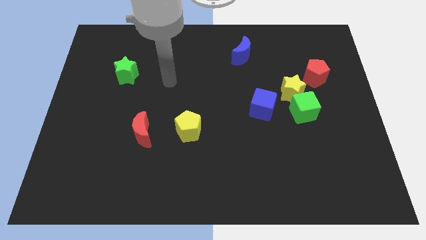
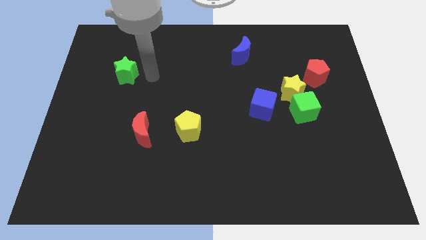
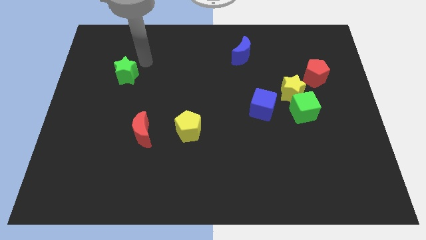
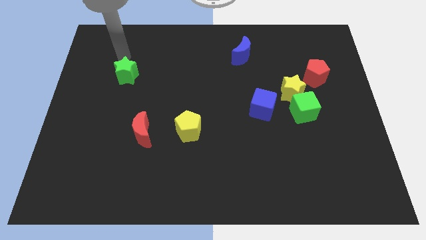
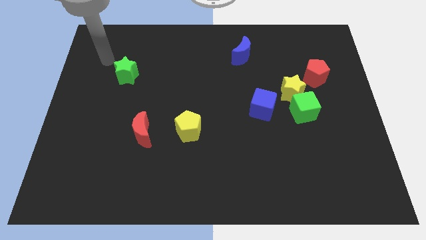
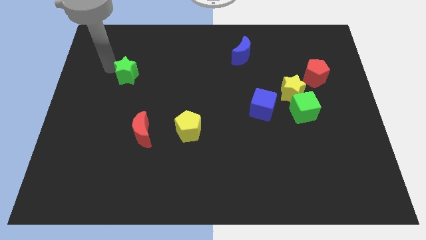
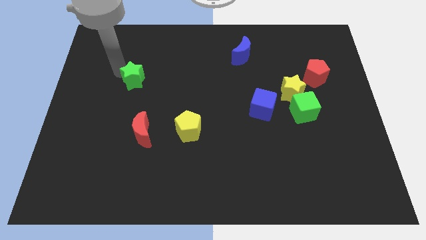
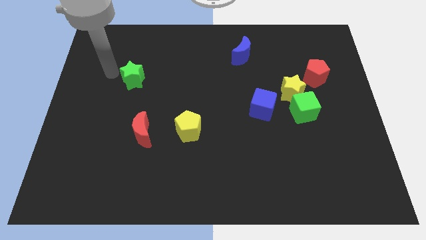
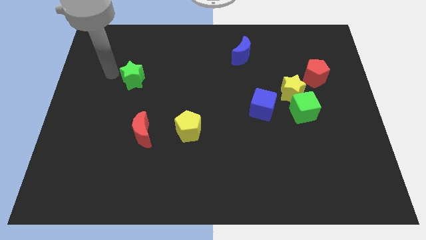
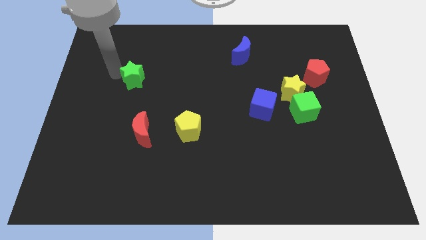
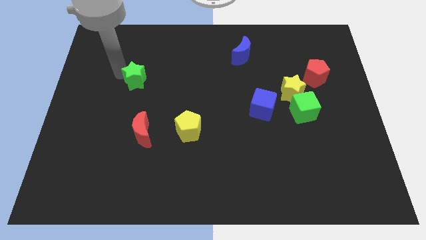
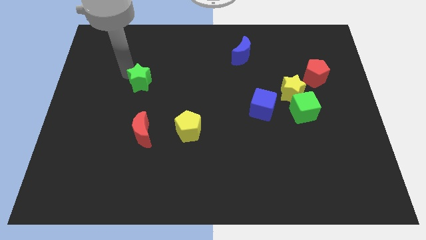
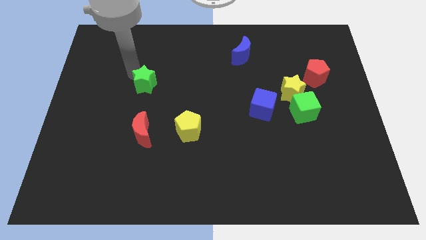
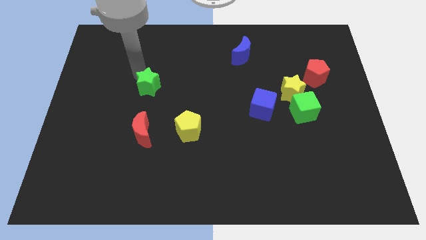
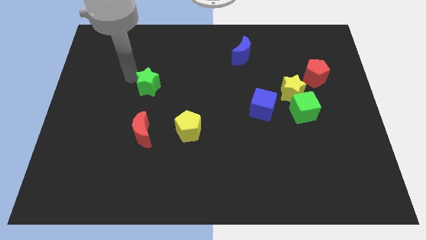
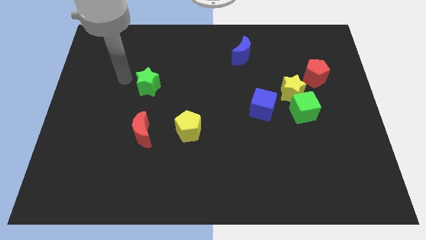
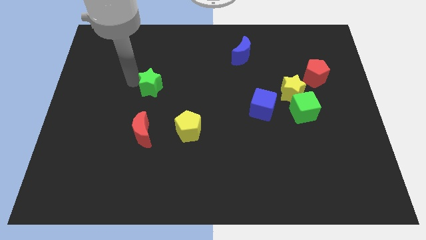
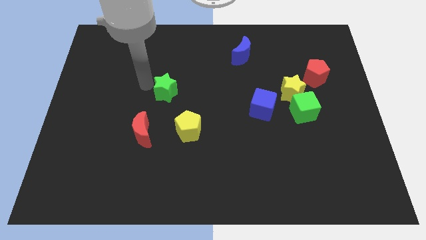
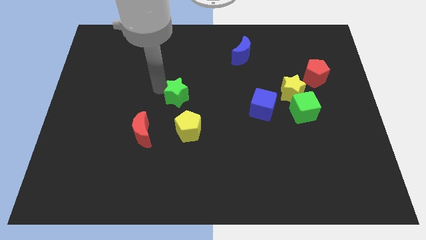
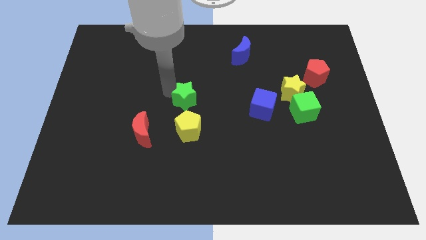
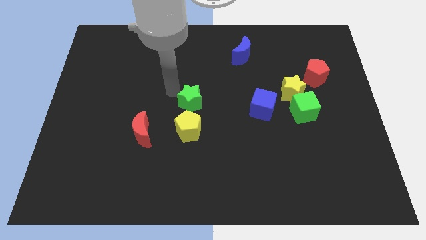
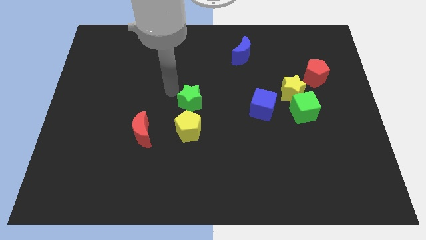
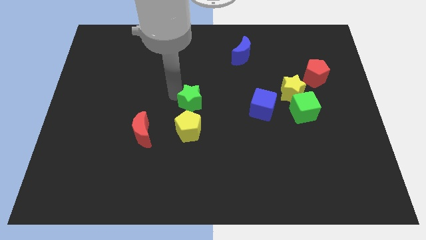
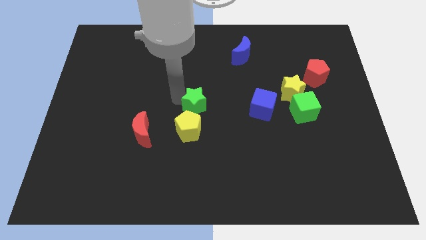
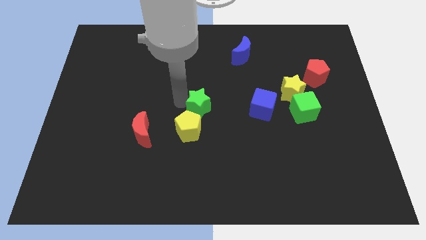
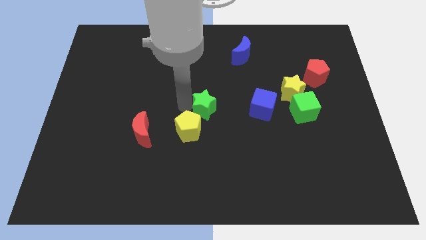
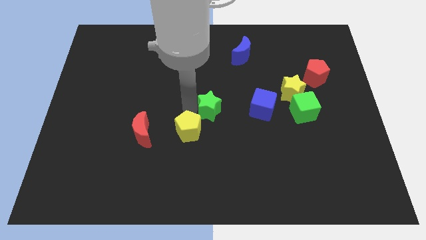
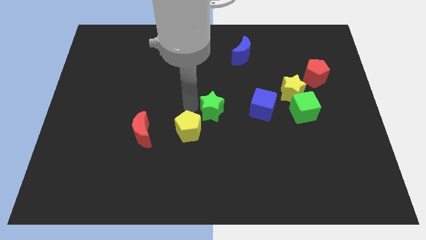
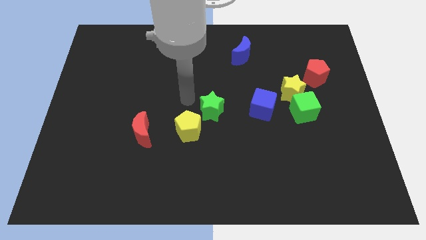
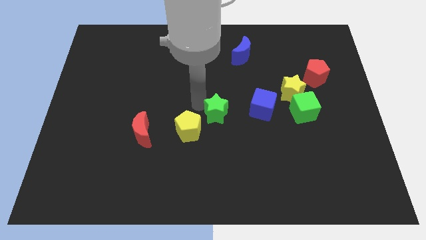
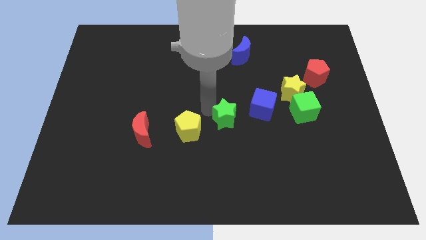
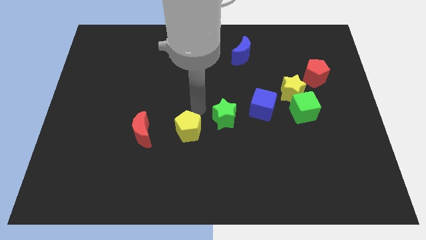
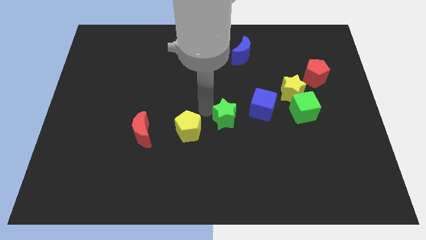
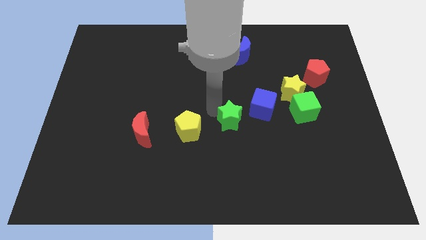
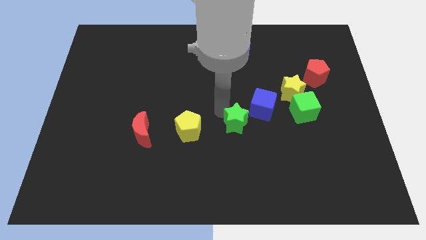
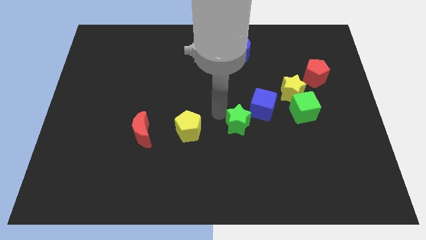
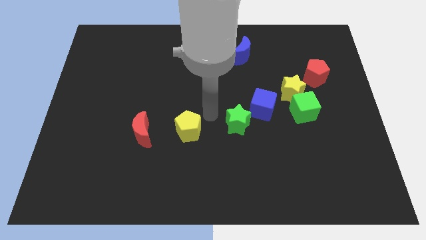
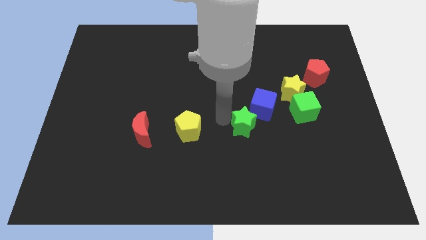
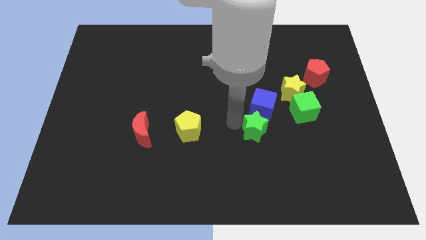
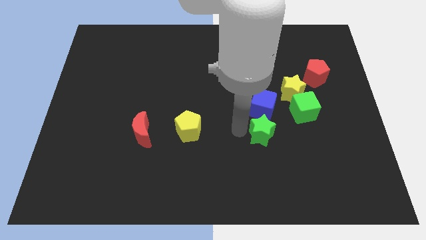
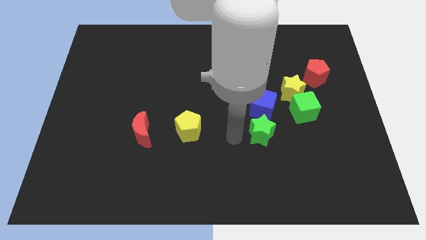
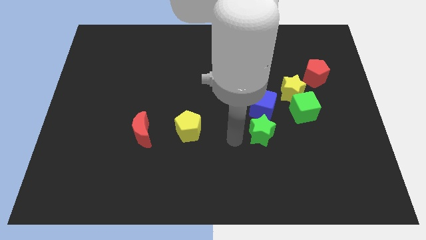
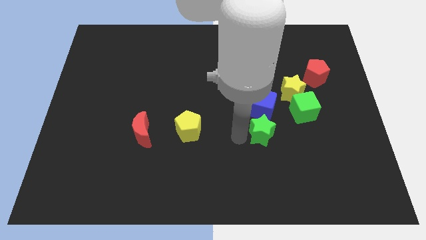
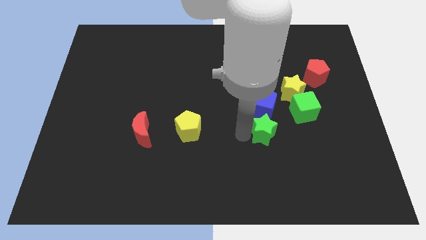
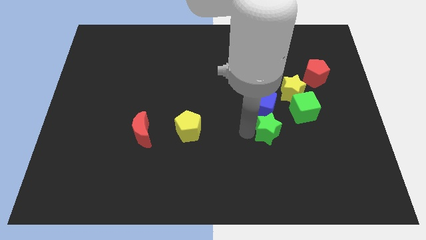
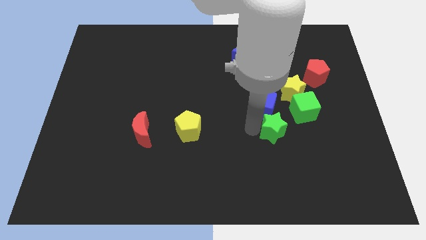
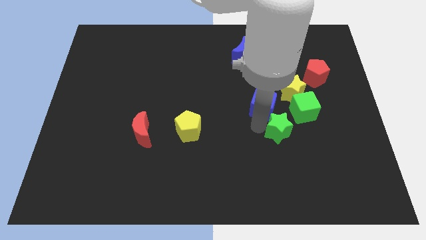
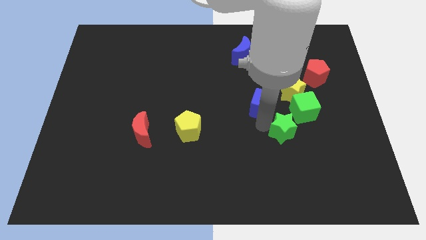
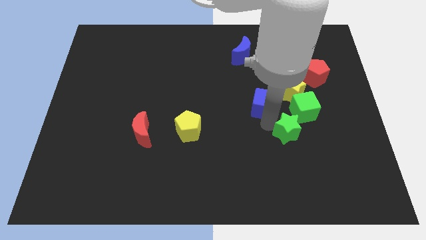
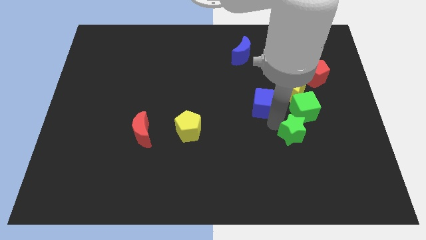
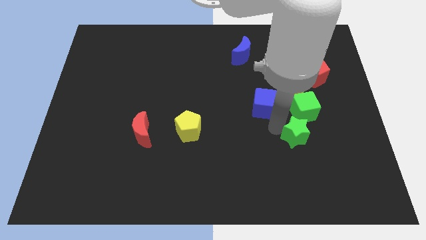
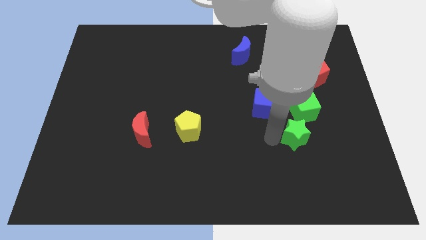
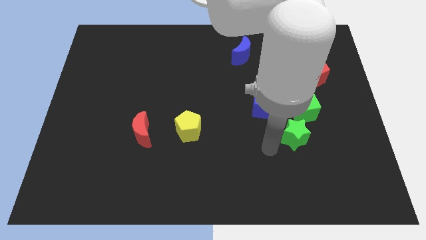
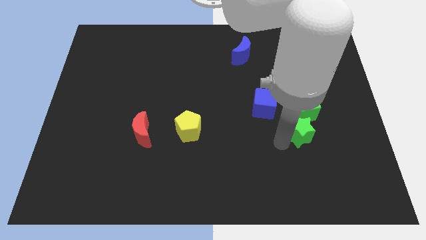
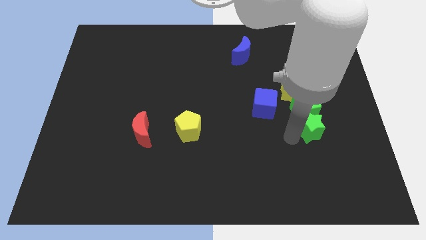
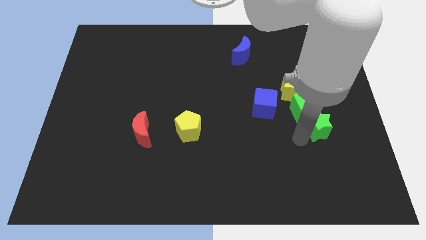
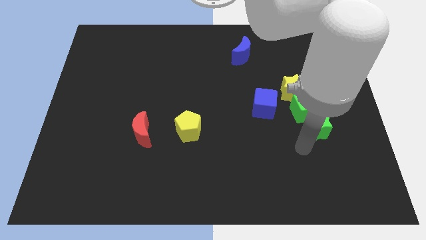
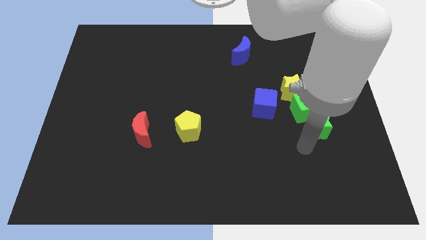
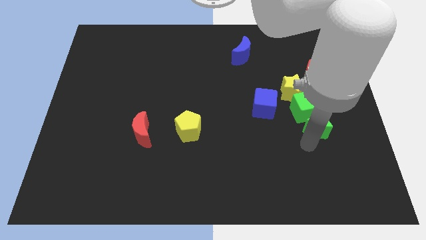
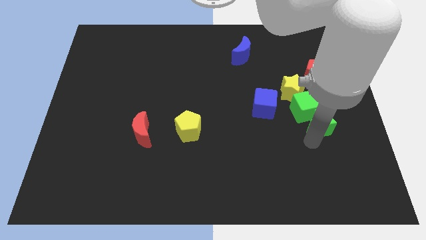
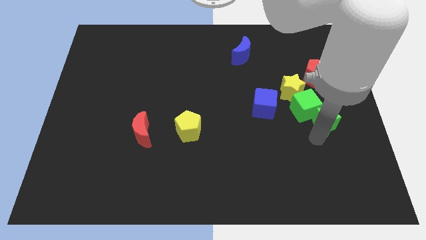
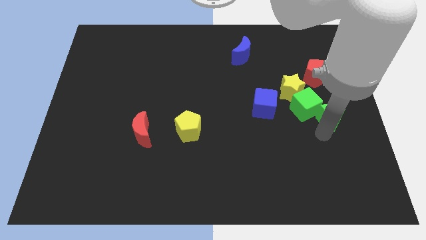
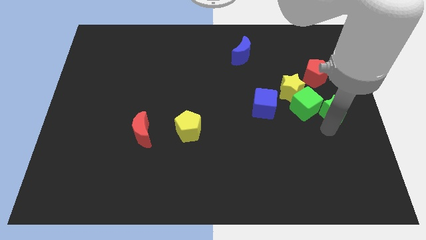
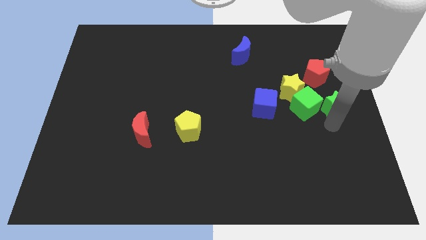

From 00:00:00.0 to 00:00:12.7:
move the green star diagonally up and to the right of the green cube

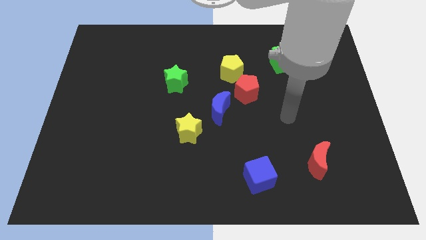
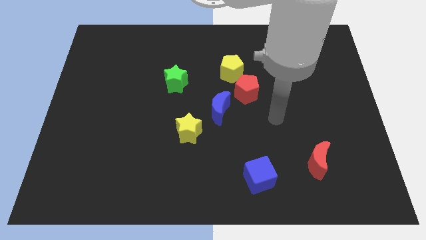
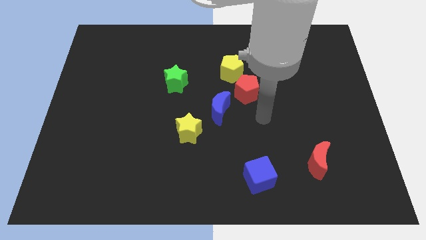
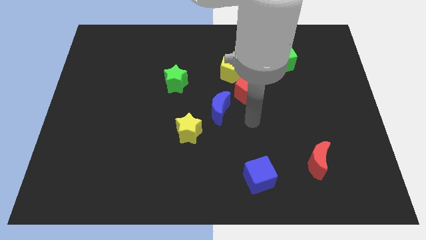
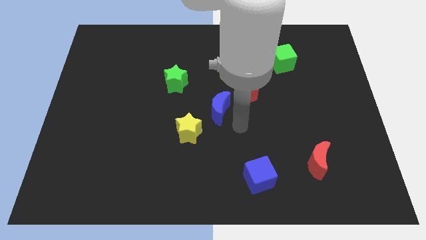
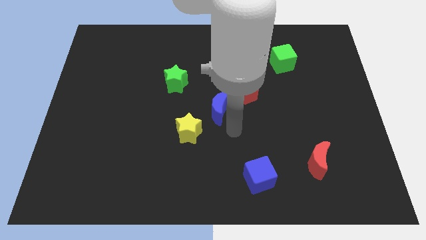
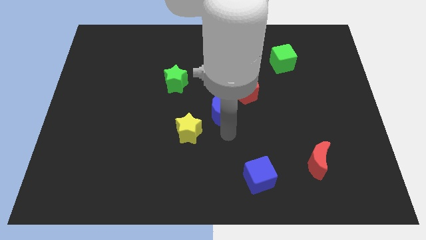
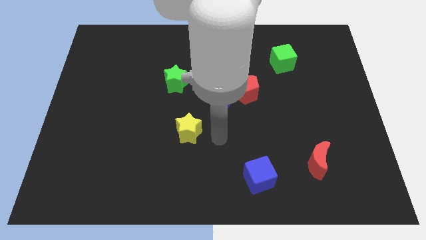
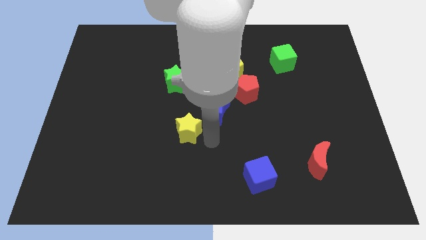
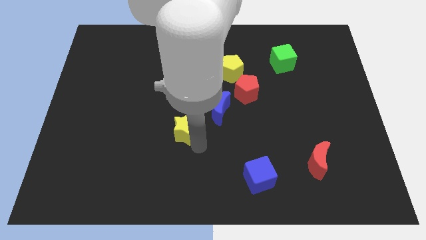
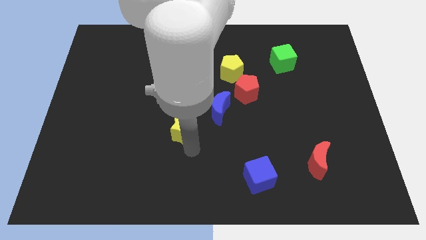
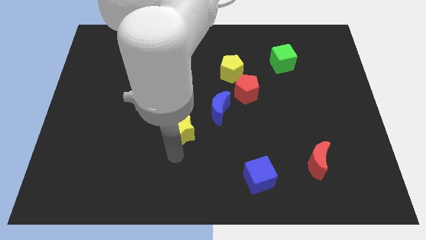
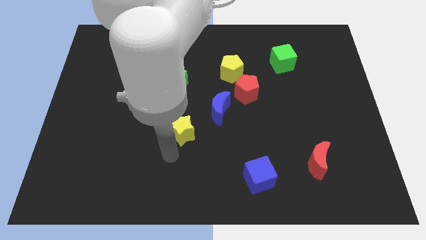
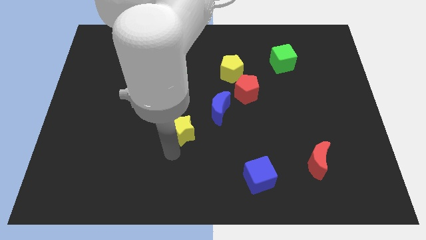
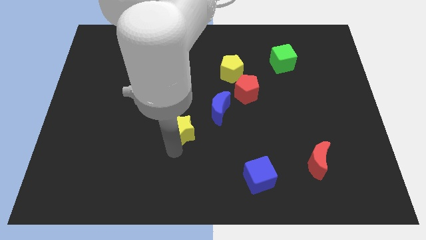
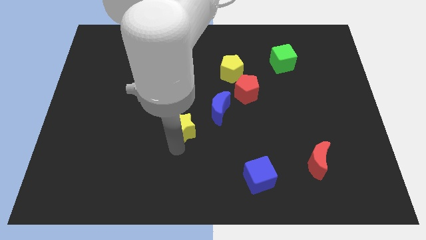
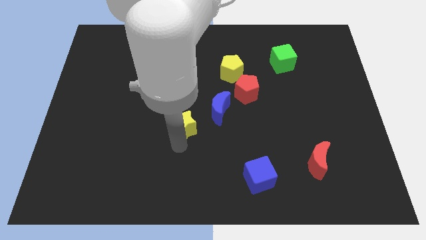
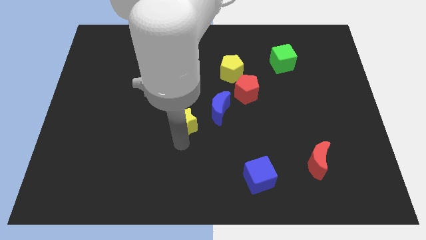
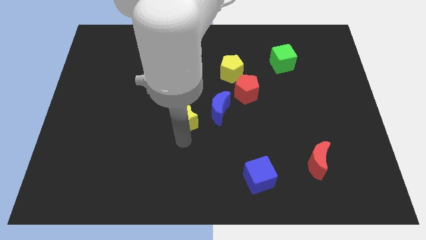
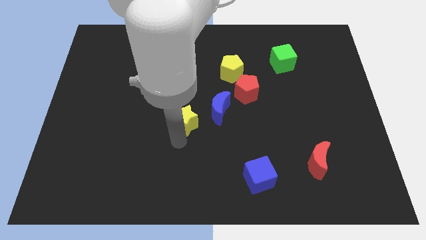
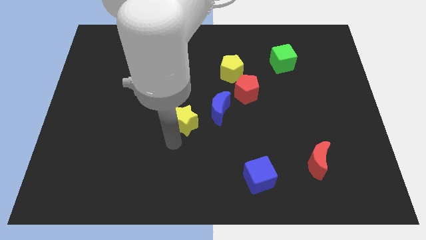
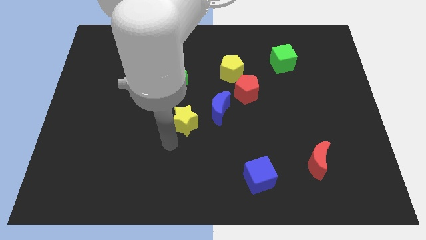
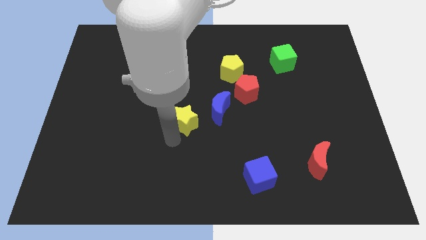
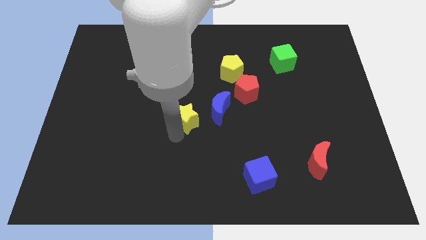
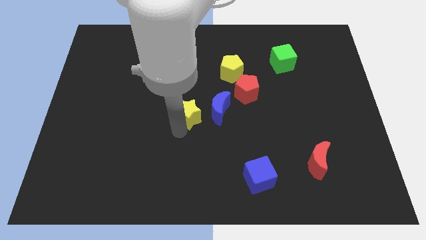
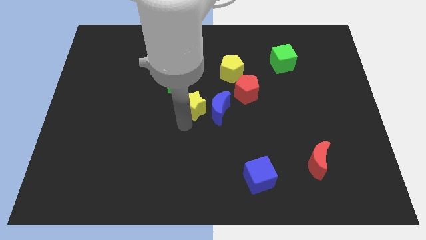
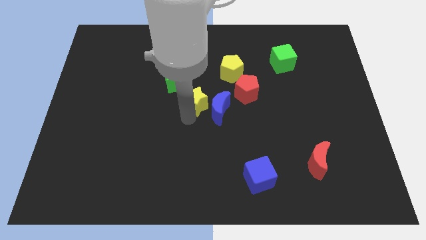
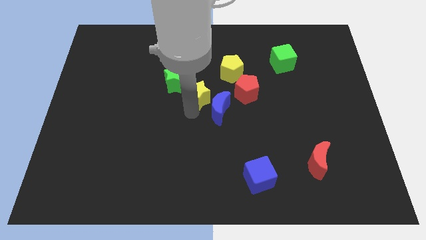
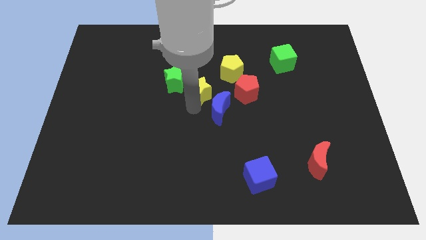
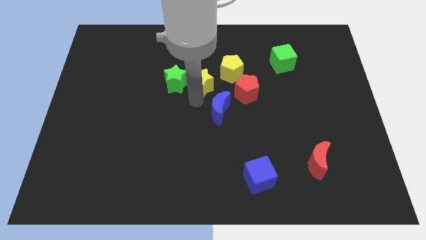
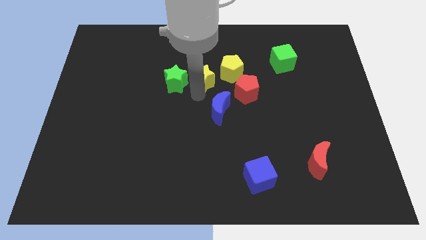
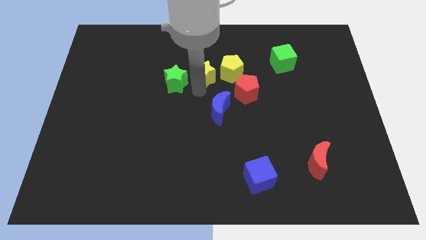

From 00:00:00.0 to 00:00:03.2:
push the yellow star diagonally up and to the left of the red pentagon
